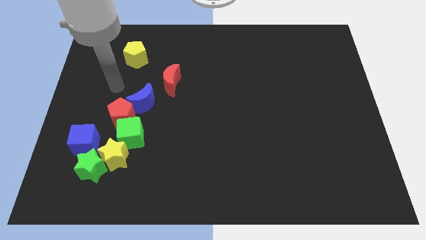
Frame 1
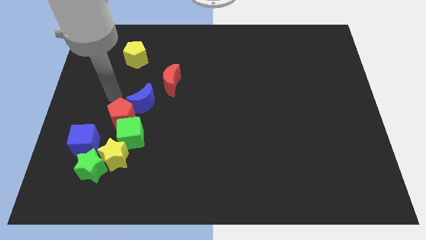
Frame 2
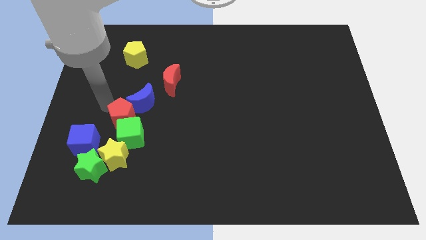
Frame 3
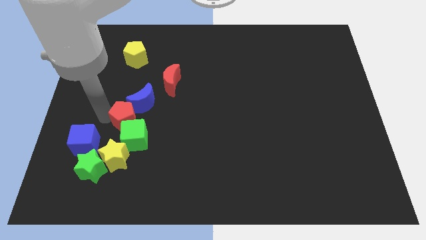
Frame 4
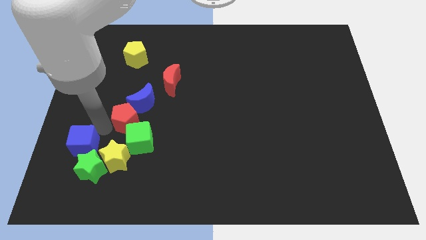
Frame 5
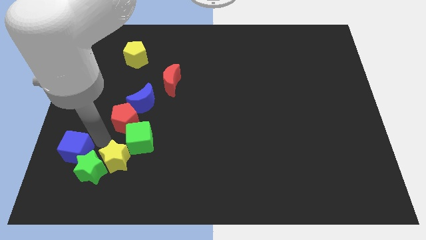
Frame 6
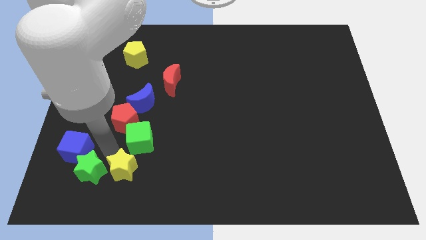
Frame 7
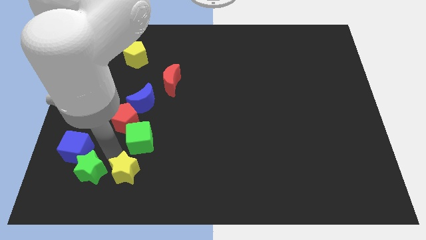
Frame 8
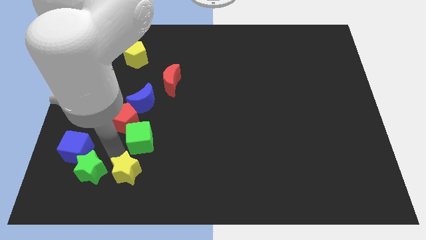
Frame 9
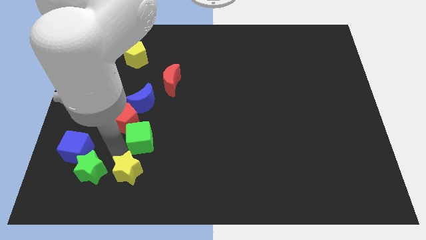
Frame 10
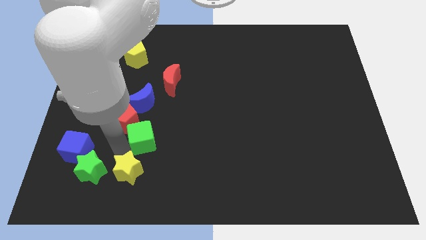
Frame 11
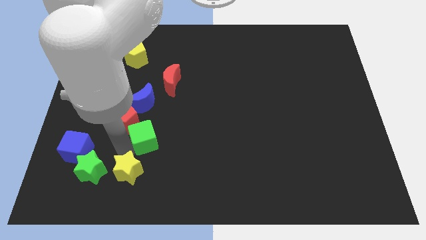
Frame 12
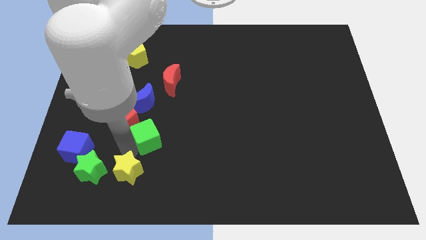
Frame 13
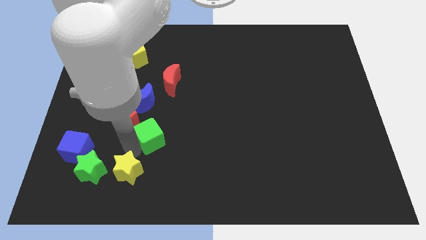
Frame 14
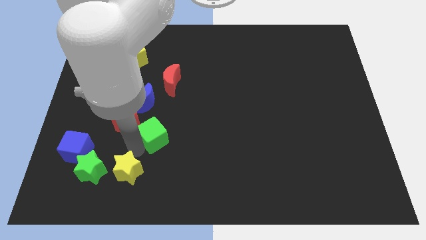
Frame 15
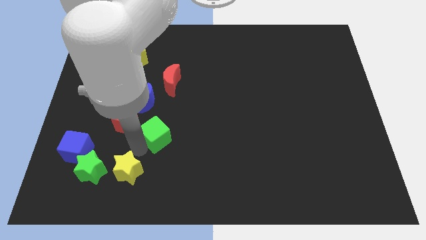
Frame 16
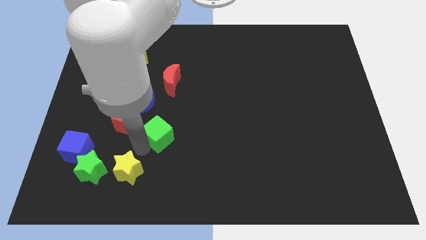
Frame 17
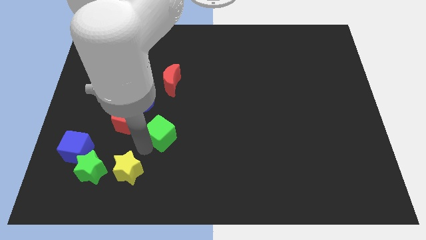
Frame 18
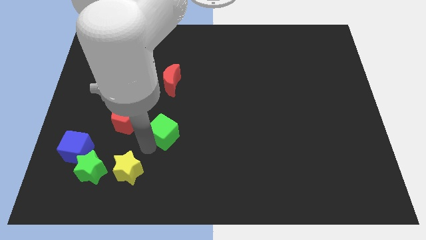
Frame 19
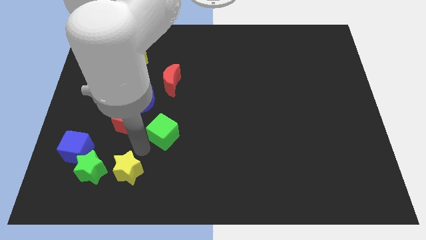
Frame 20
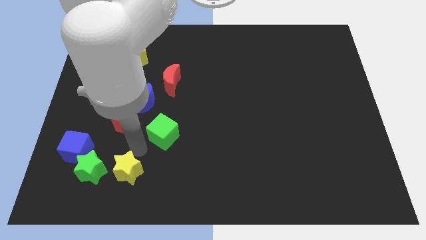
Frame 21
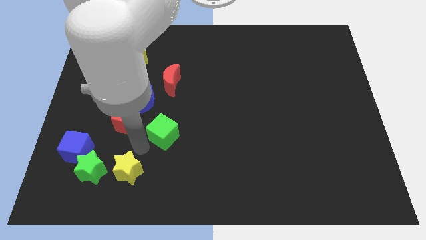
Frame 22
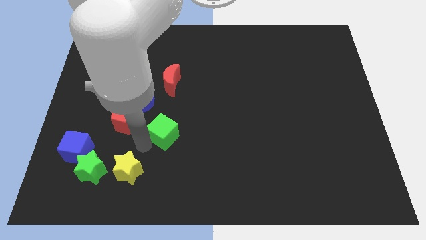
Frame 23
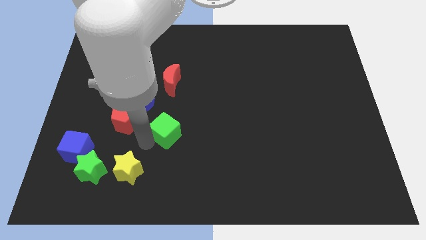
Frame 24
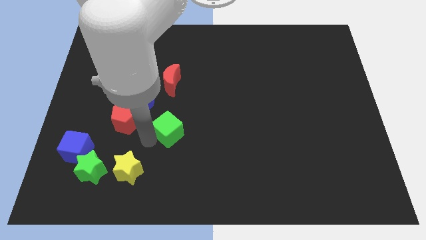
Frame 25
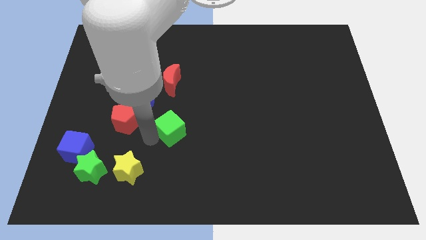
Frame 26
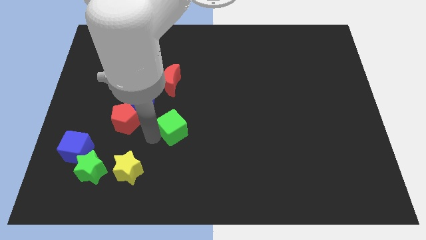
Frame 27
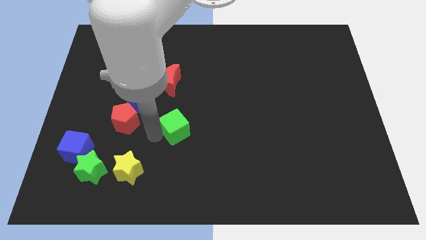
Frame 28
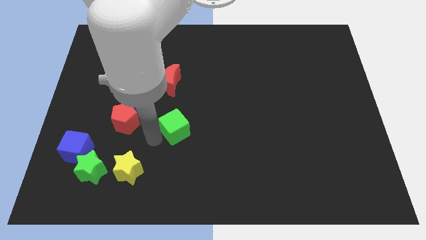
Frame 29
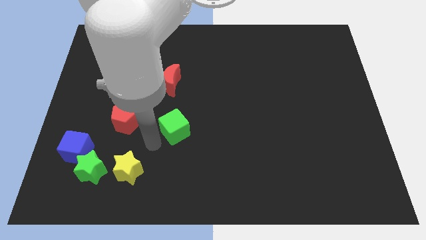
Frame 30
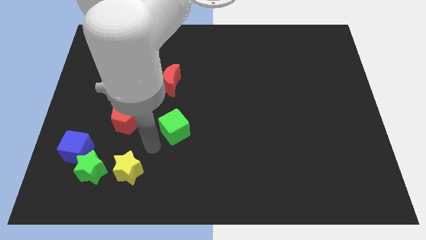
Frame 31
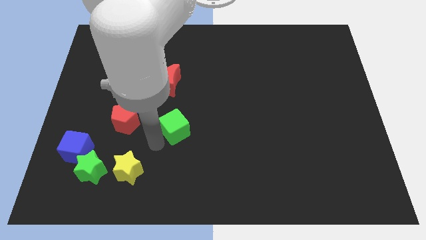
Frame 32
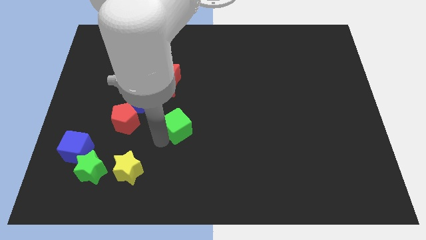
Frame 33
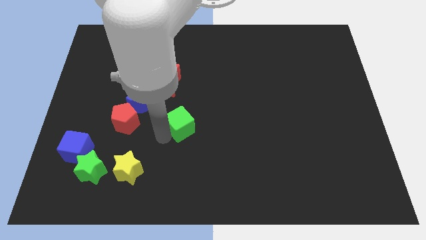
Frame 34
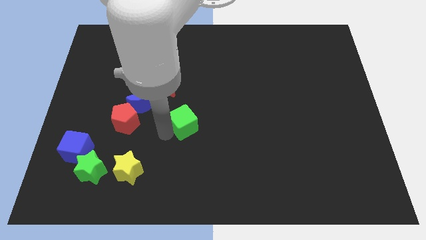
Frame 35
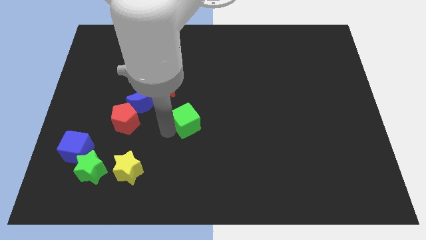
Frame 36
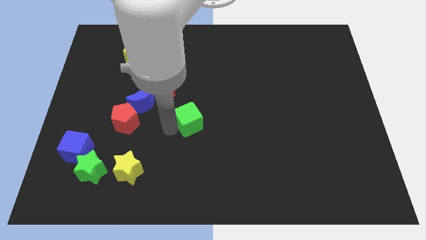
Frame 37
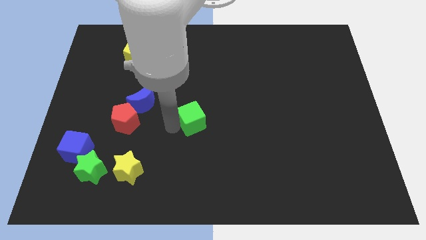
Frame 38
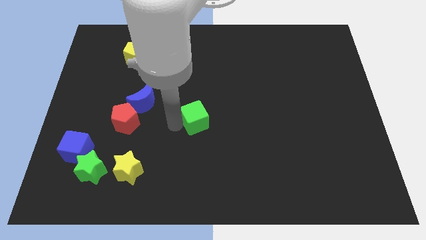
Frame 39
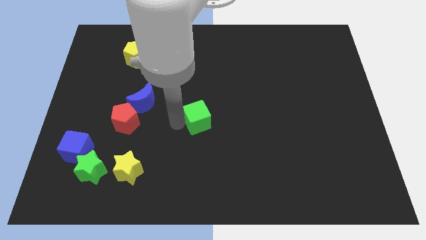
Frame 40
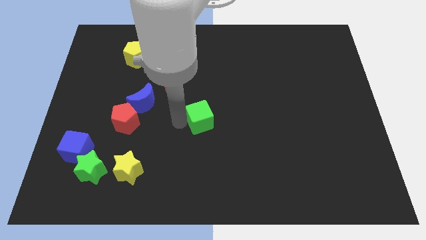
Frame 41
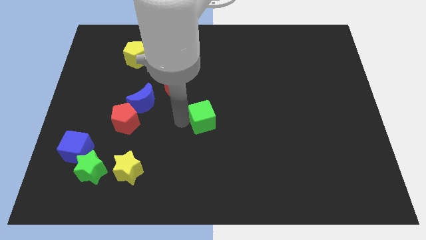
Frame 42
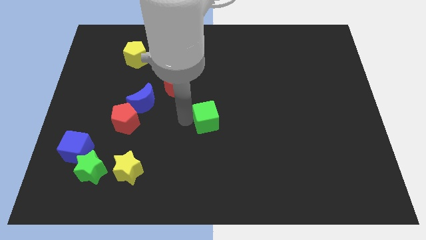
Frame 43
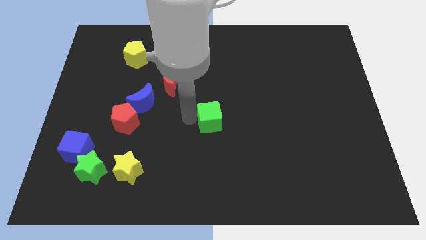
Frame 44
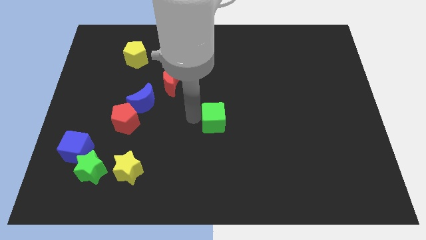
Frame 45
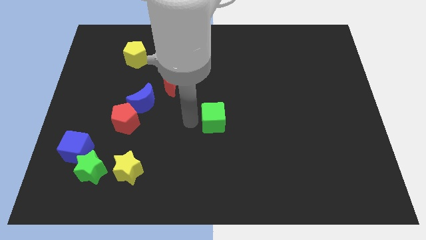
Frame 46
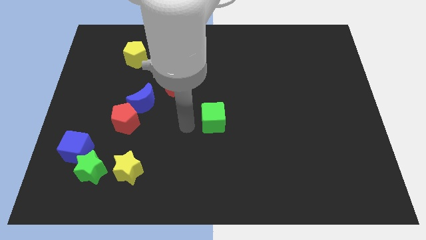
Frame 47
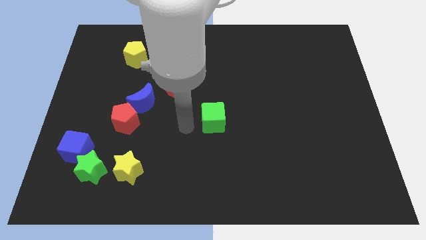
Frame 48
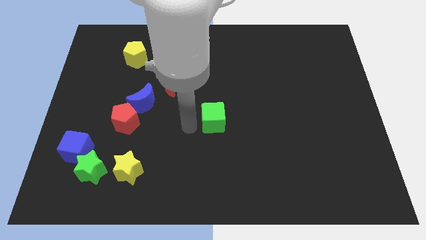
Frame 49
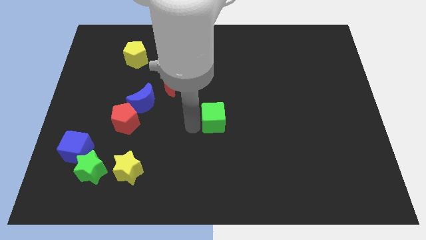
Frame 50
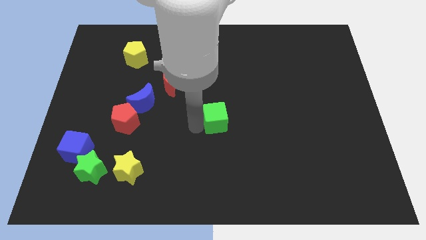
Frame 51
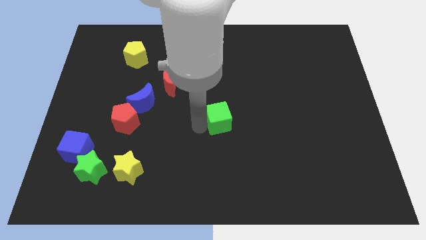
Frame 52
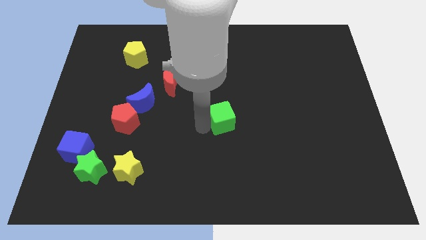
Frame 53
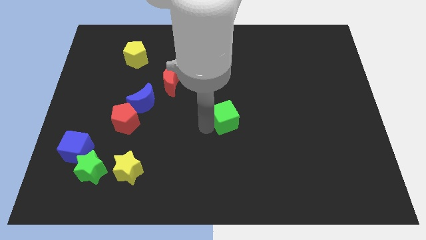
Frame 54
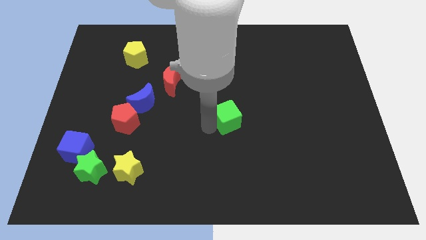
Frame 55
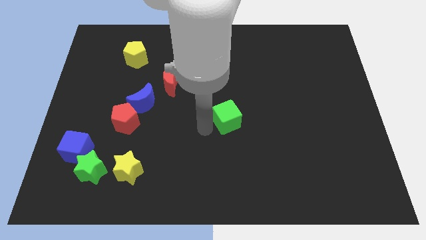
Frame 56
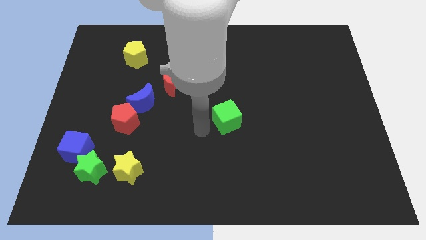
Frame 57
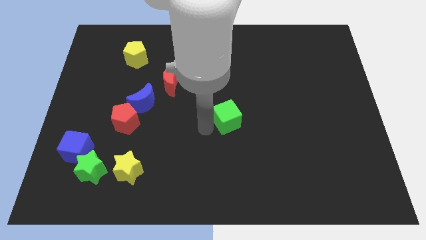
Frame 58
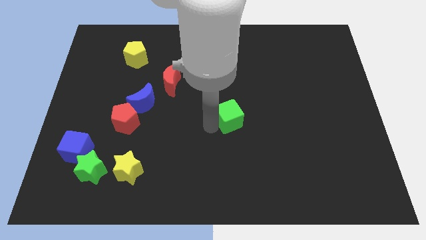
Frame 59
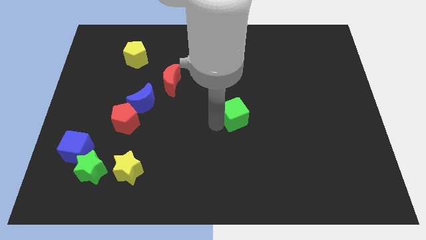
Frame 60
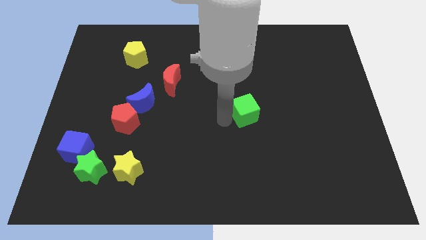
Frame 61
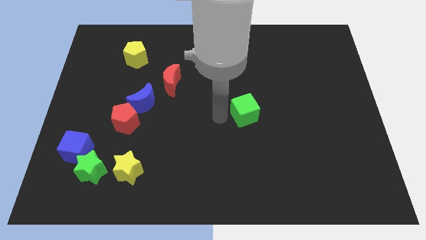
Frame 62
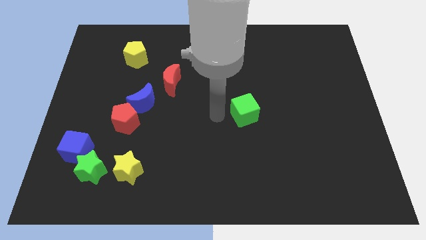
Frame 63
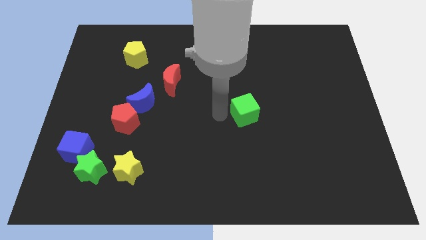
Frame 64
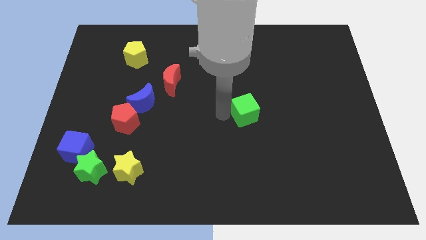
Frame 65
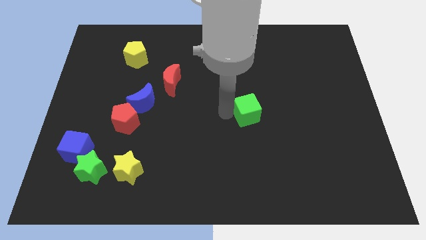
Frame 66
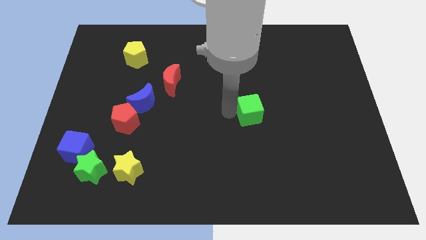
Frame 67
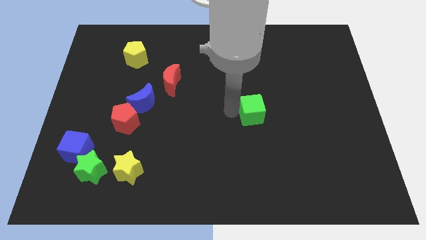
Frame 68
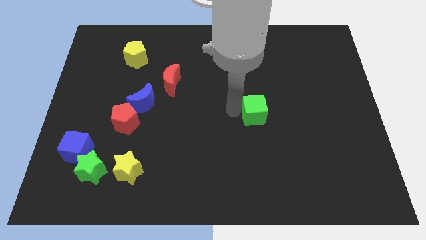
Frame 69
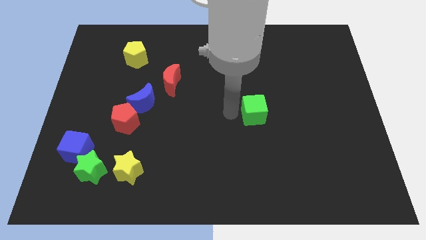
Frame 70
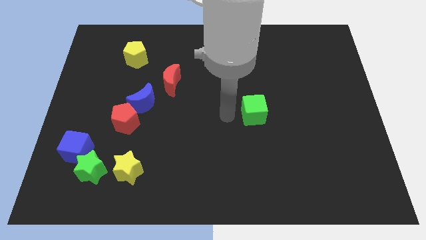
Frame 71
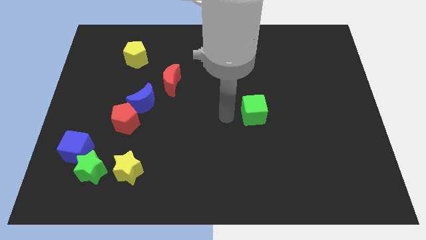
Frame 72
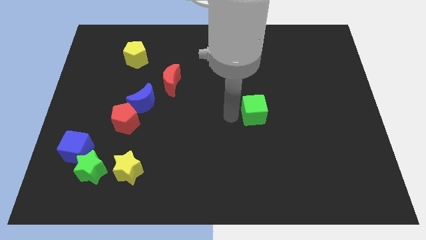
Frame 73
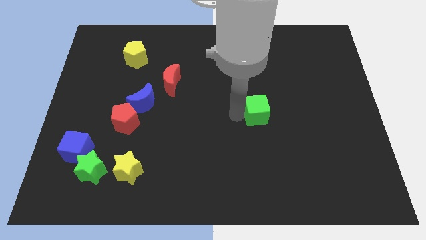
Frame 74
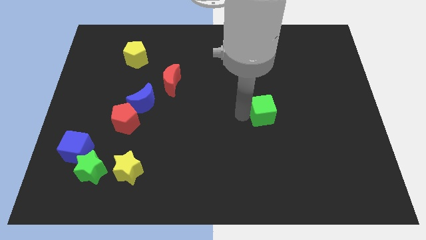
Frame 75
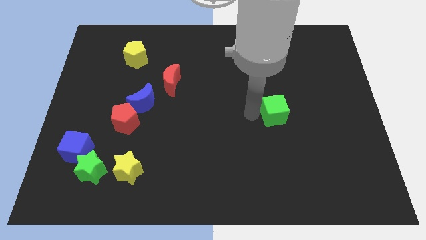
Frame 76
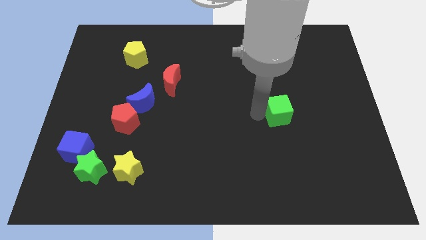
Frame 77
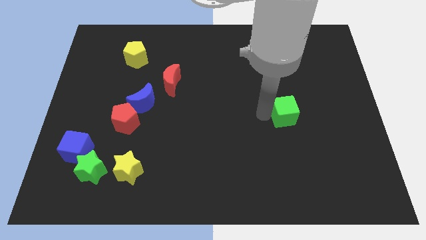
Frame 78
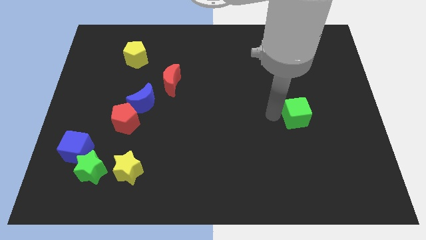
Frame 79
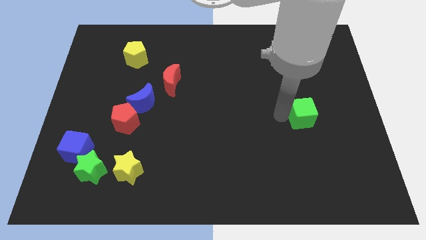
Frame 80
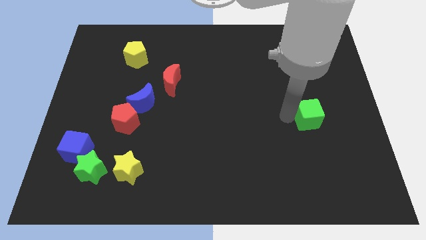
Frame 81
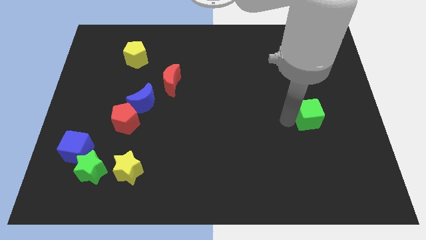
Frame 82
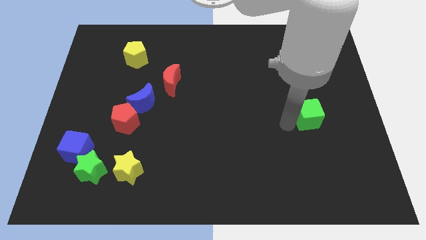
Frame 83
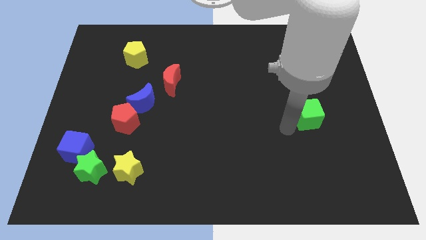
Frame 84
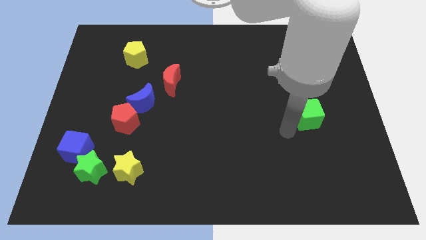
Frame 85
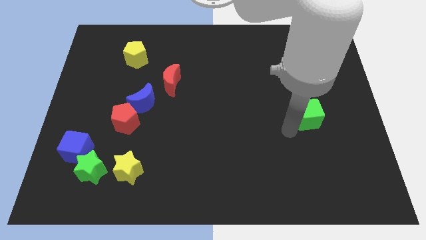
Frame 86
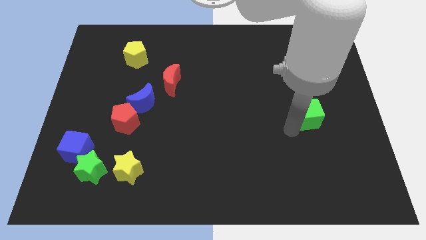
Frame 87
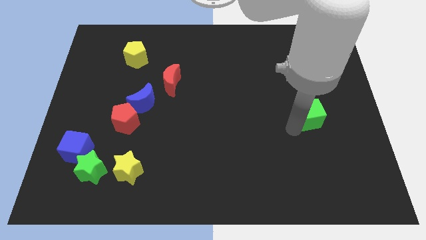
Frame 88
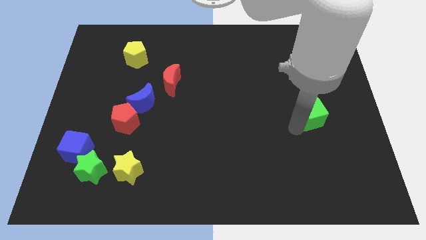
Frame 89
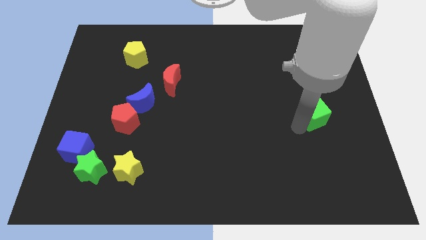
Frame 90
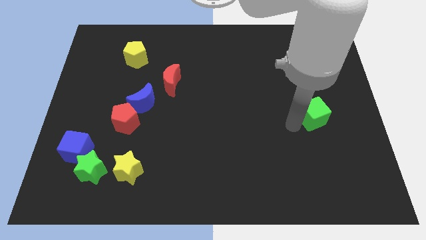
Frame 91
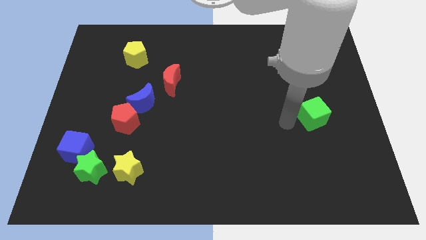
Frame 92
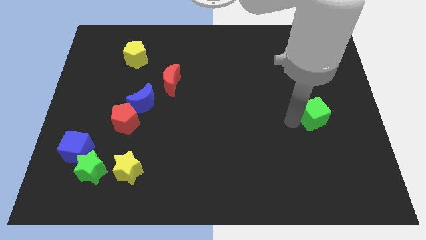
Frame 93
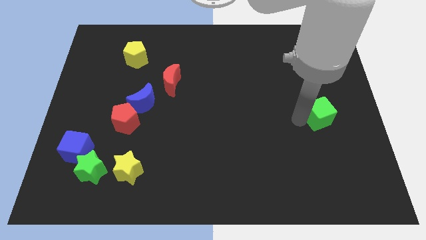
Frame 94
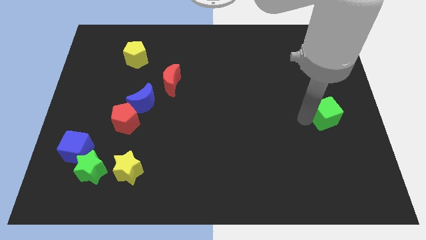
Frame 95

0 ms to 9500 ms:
push the green cube to the right side
